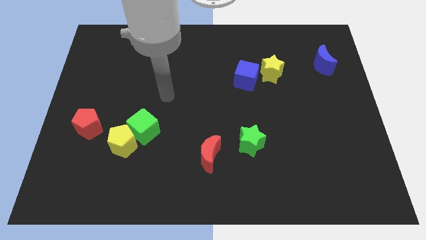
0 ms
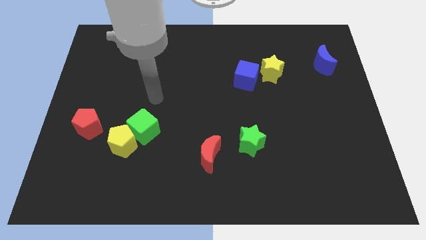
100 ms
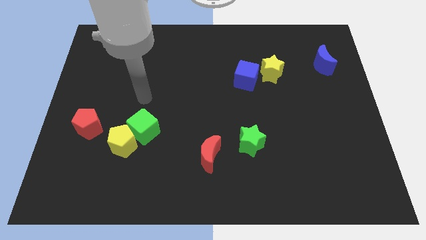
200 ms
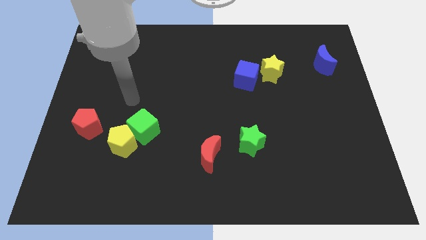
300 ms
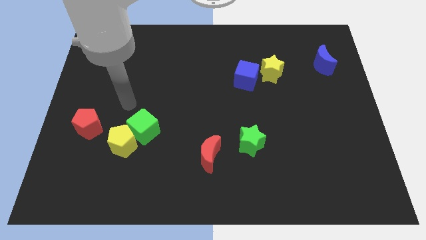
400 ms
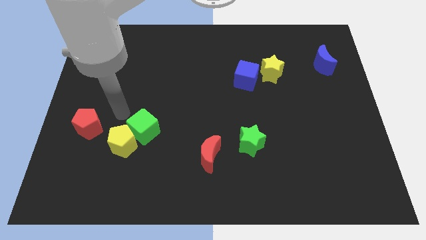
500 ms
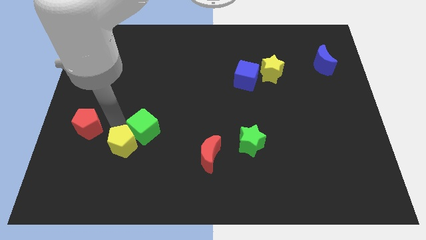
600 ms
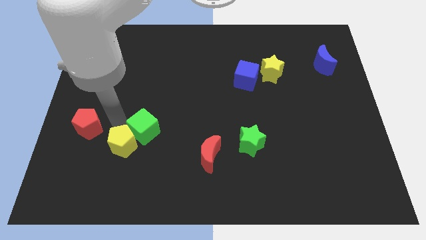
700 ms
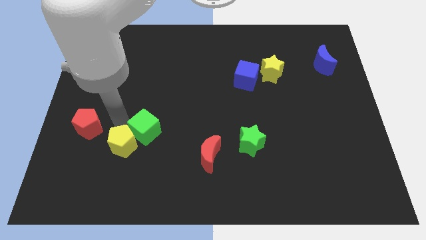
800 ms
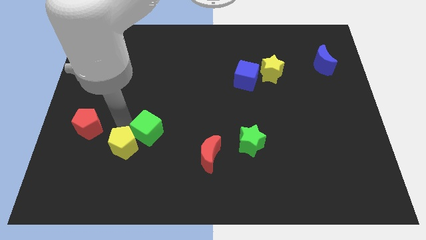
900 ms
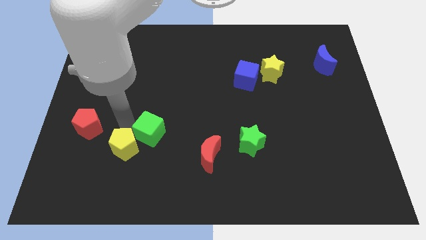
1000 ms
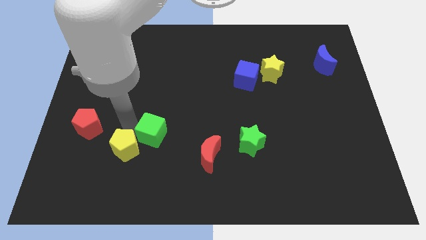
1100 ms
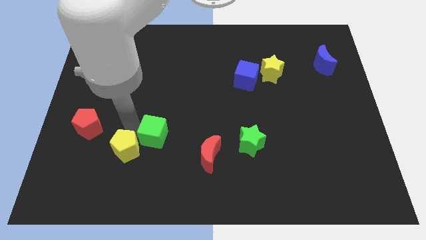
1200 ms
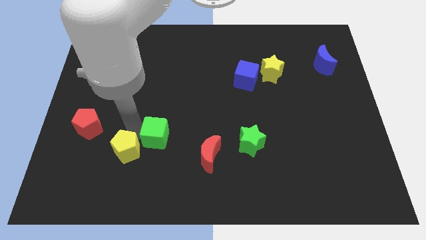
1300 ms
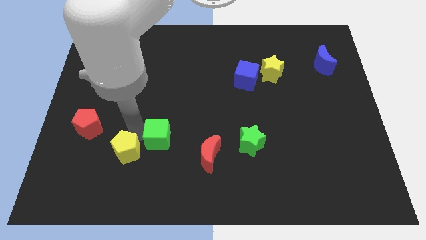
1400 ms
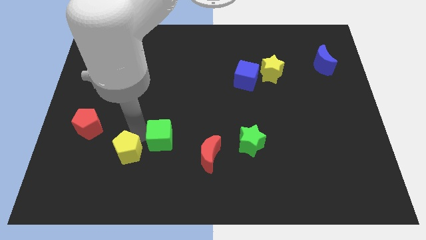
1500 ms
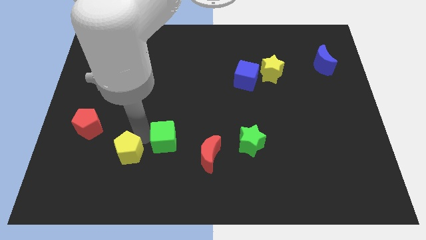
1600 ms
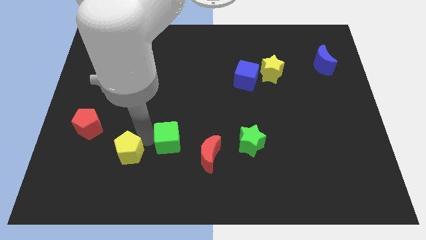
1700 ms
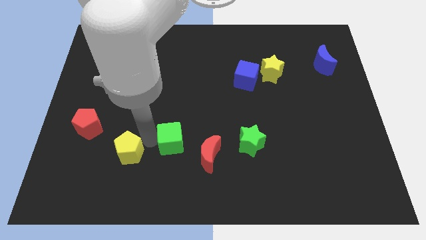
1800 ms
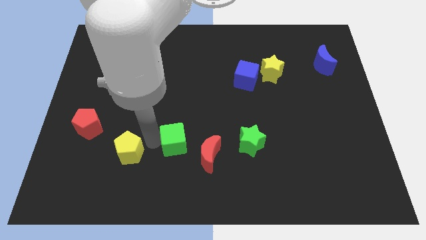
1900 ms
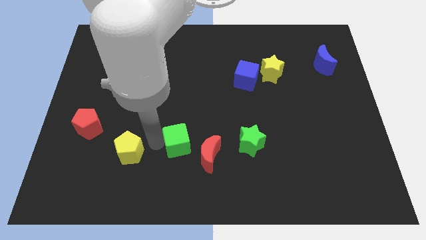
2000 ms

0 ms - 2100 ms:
slightly slide the green cube to the right

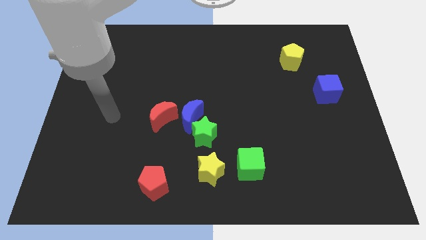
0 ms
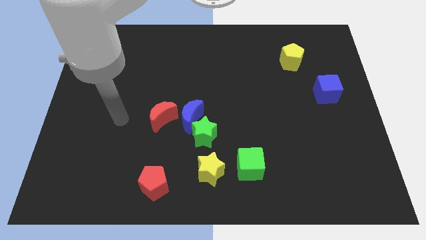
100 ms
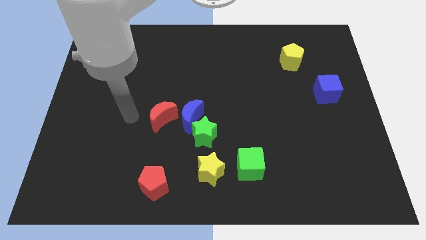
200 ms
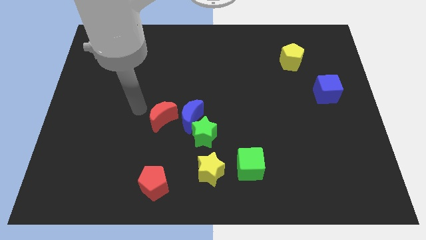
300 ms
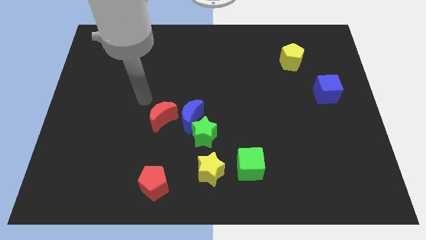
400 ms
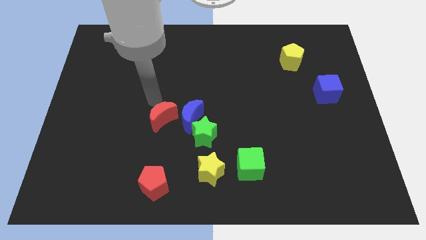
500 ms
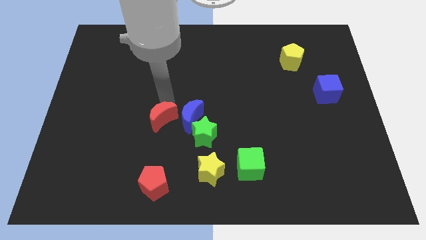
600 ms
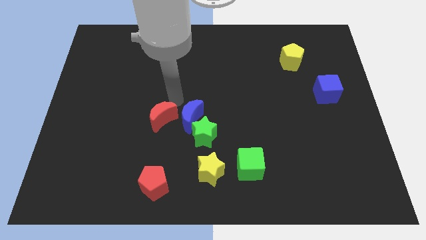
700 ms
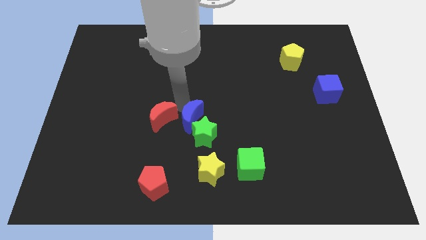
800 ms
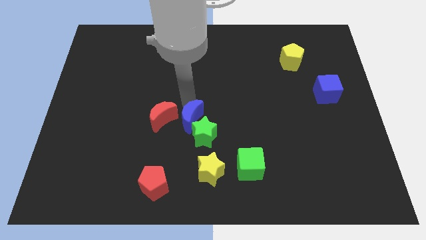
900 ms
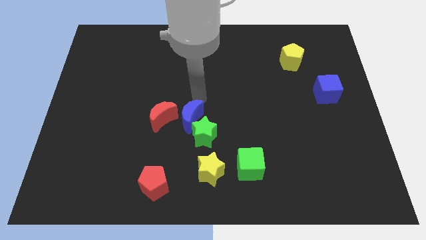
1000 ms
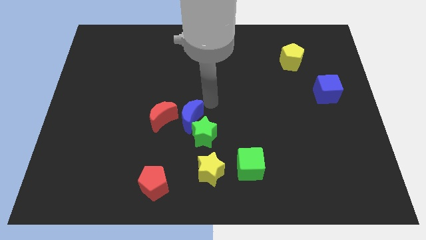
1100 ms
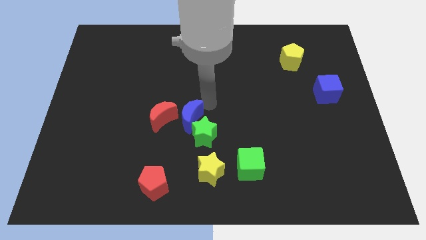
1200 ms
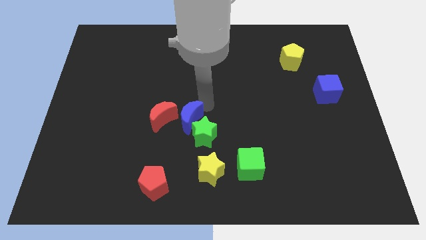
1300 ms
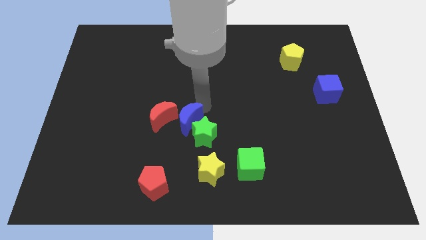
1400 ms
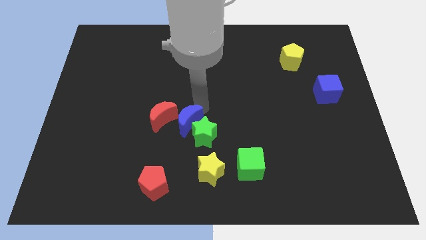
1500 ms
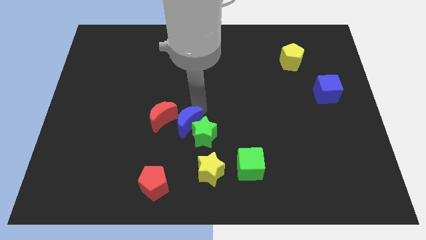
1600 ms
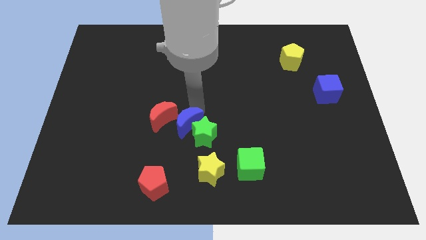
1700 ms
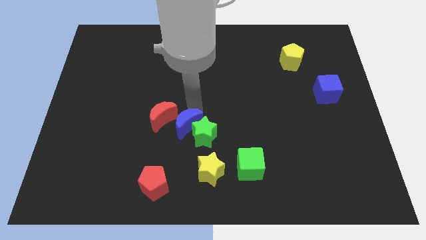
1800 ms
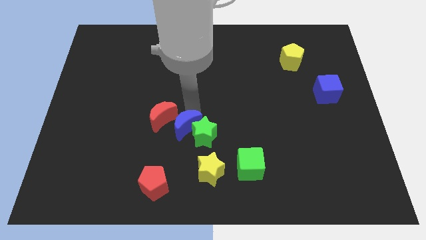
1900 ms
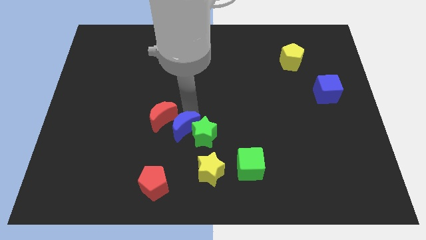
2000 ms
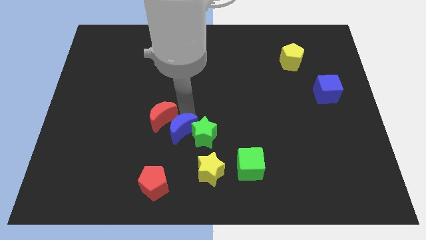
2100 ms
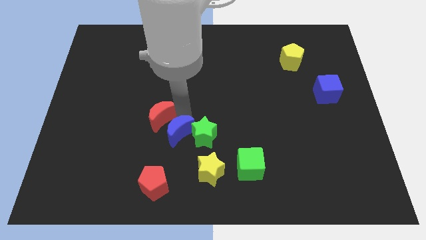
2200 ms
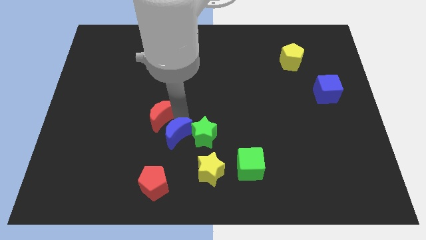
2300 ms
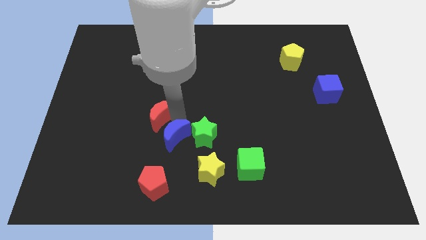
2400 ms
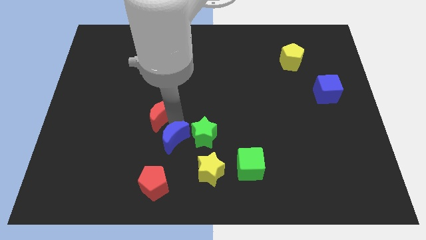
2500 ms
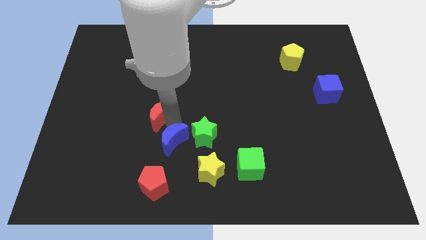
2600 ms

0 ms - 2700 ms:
move the blue moon somewhat downwards and left

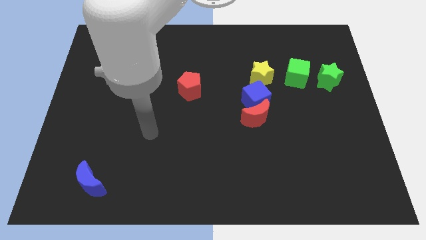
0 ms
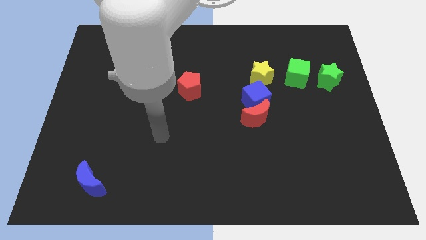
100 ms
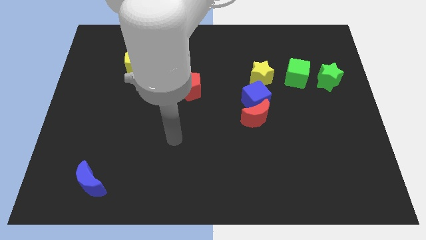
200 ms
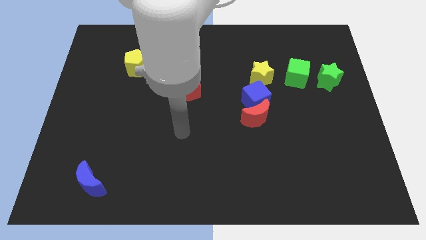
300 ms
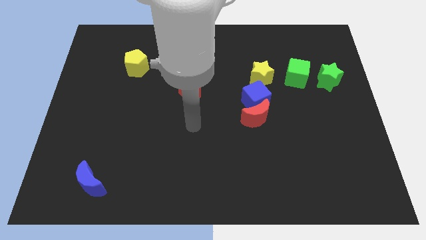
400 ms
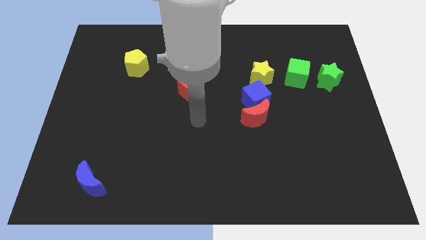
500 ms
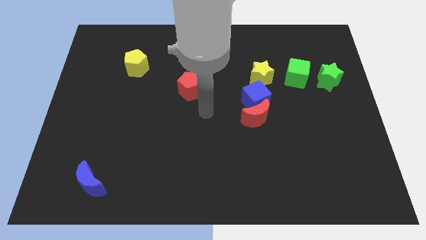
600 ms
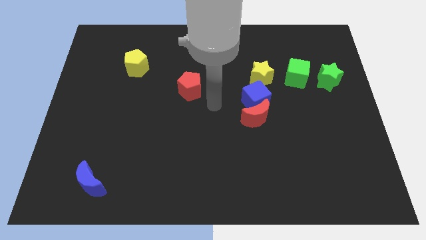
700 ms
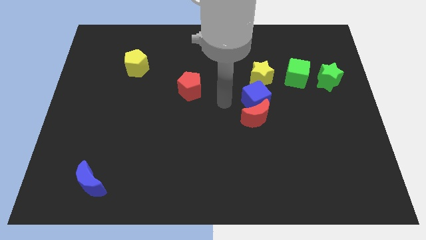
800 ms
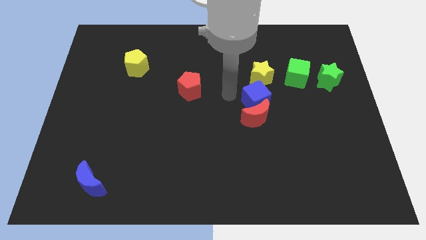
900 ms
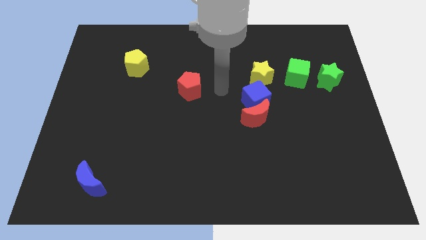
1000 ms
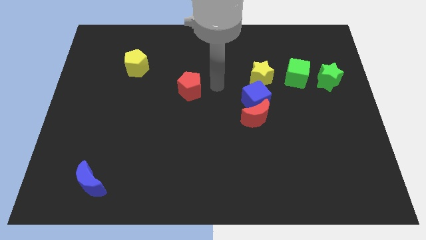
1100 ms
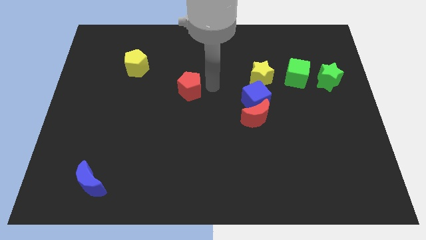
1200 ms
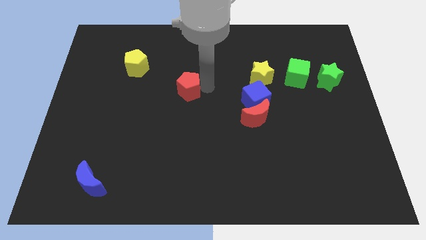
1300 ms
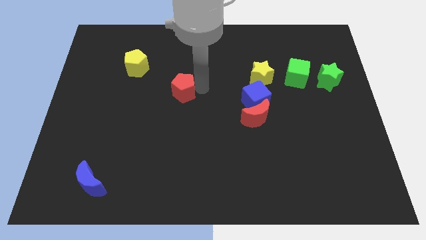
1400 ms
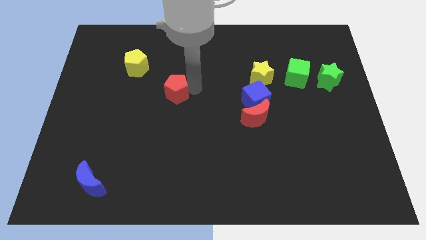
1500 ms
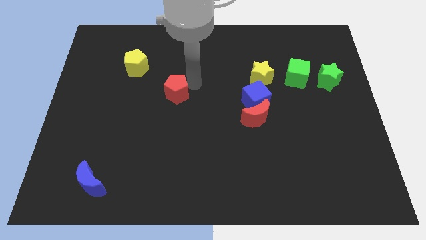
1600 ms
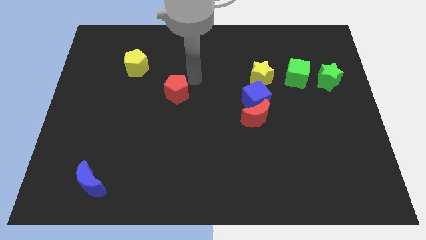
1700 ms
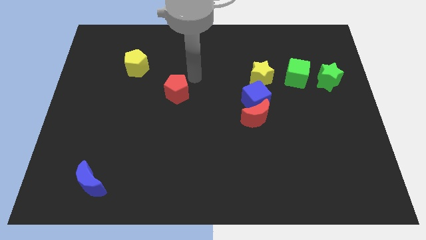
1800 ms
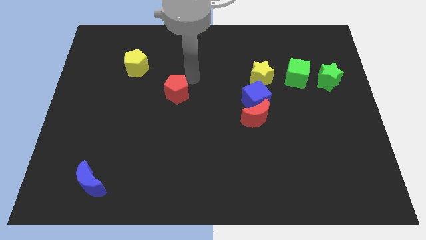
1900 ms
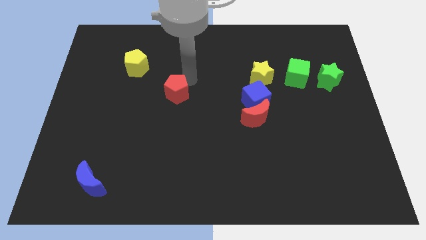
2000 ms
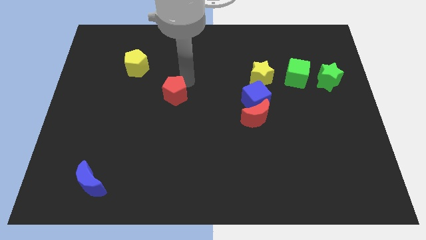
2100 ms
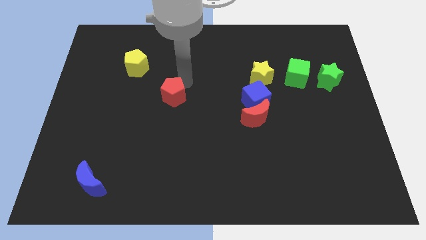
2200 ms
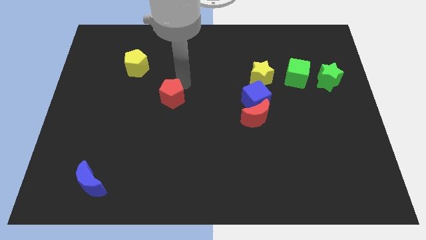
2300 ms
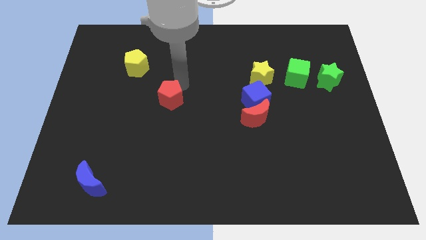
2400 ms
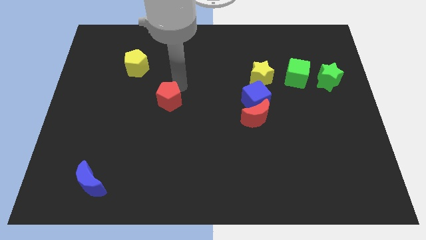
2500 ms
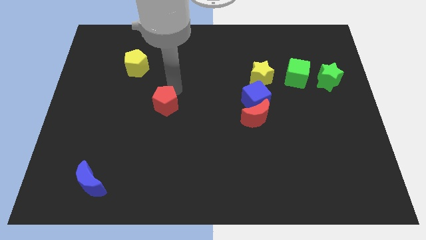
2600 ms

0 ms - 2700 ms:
push the red pentagon diagonally downwards and to the left a little bit

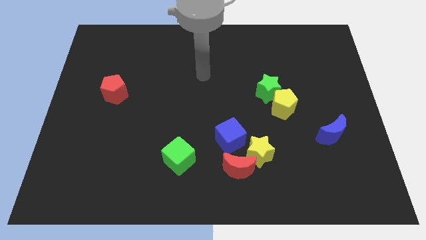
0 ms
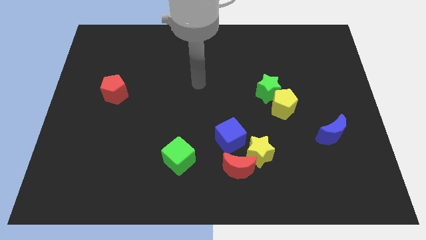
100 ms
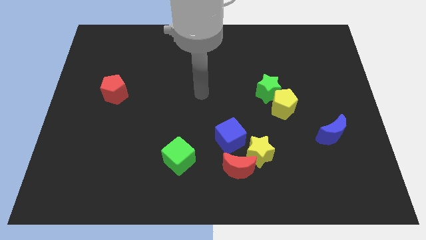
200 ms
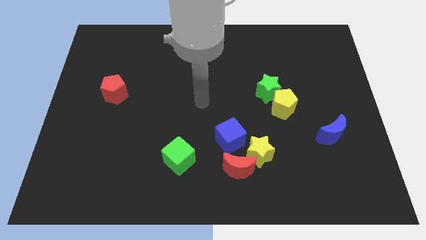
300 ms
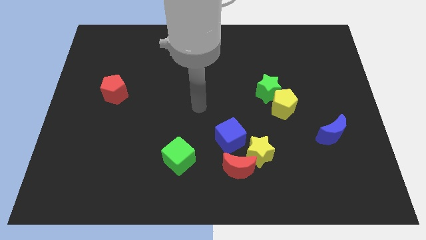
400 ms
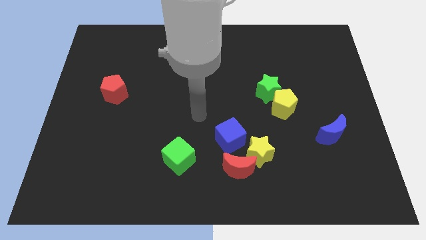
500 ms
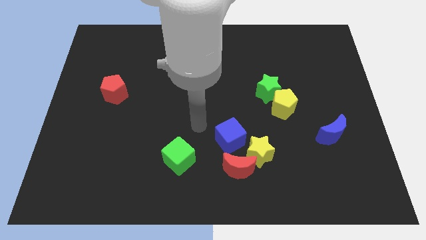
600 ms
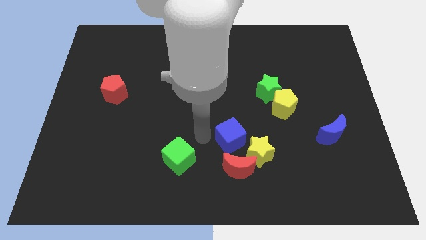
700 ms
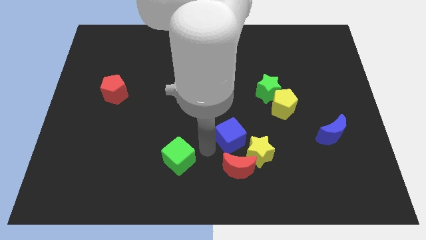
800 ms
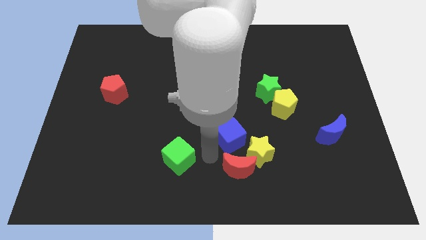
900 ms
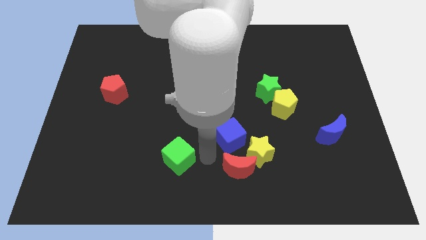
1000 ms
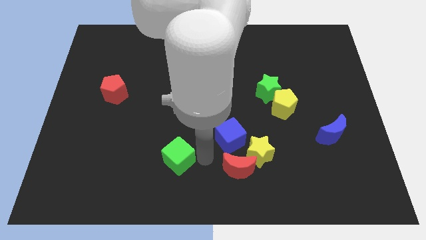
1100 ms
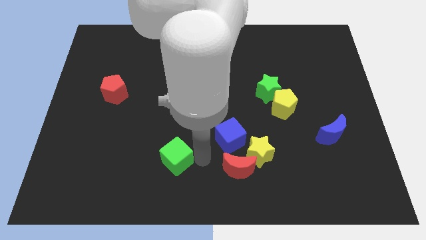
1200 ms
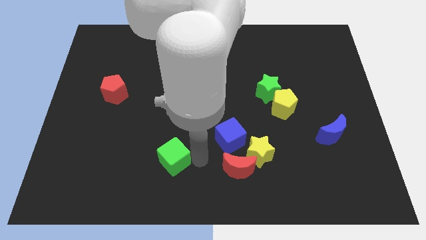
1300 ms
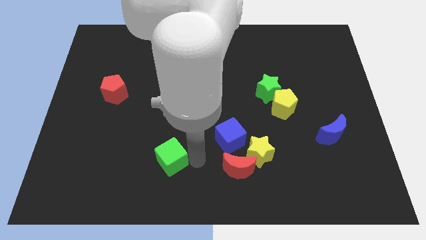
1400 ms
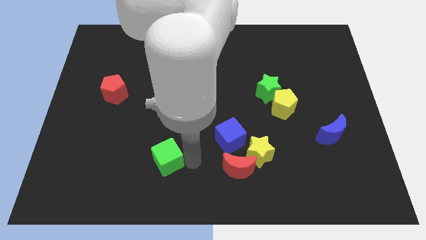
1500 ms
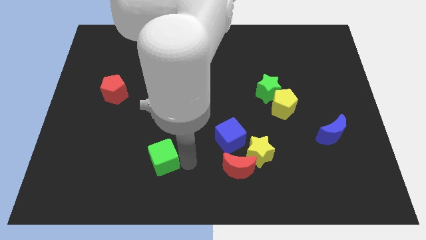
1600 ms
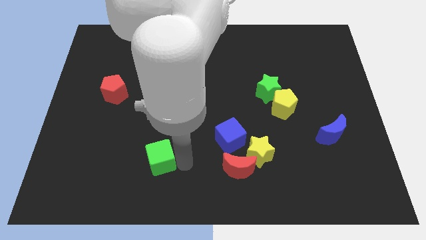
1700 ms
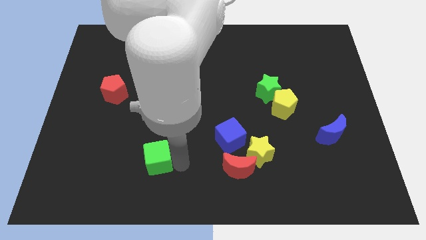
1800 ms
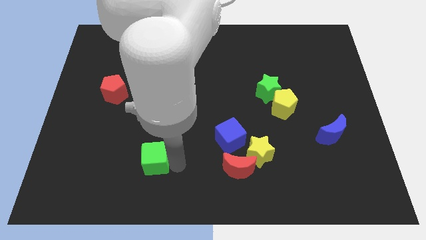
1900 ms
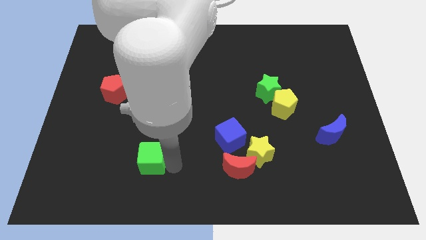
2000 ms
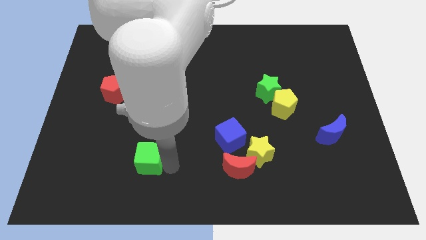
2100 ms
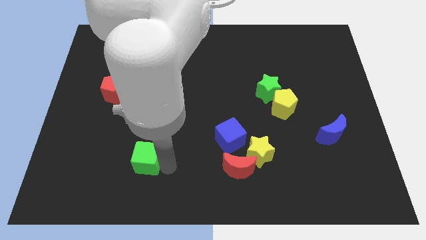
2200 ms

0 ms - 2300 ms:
push the green cube a little bit to the left
